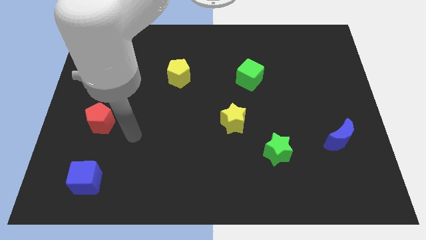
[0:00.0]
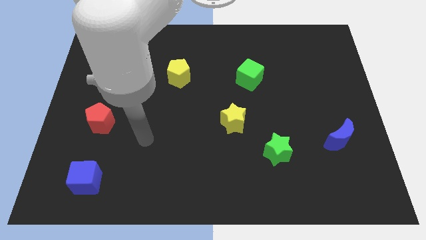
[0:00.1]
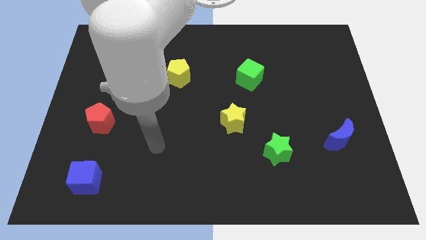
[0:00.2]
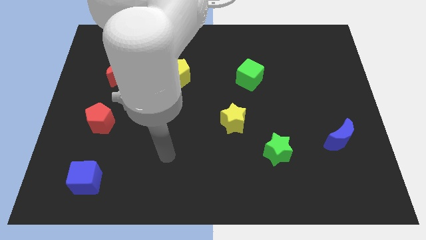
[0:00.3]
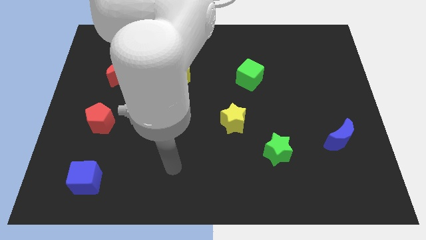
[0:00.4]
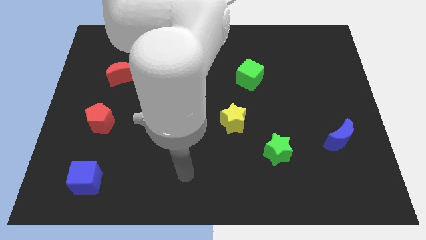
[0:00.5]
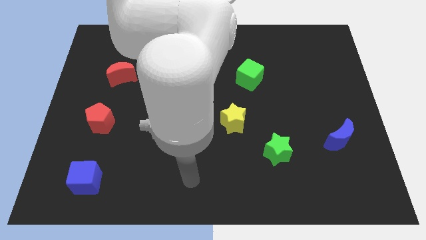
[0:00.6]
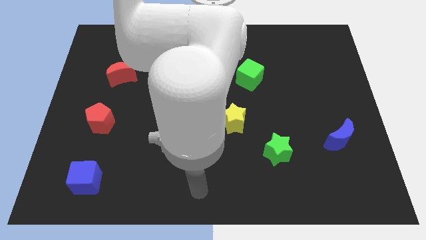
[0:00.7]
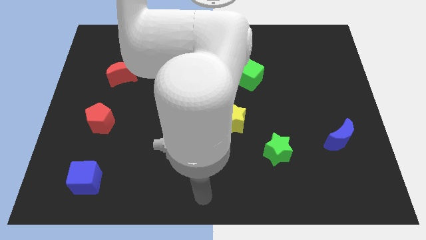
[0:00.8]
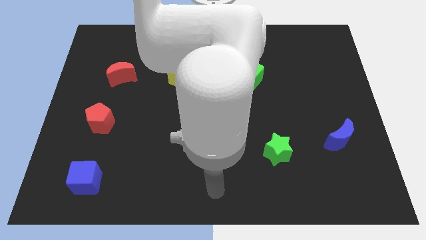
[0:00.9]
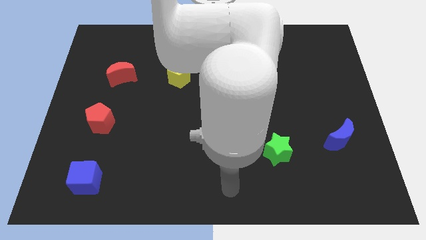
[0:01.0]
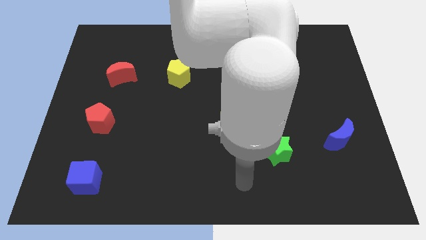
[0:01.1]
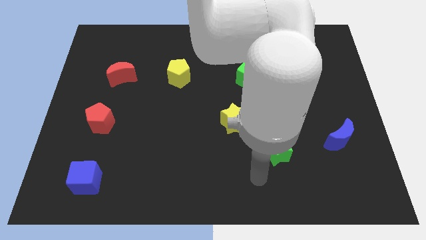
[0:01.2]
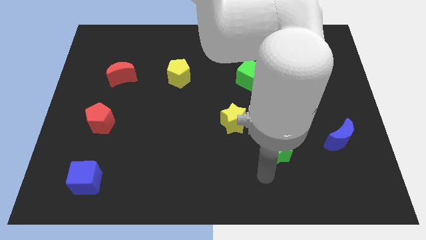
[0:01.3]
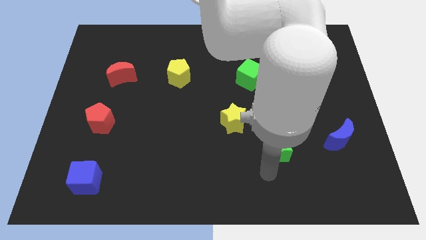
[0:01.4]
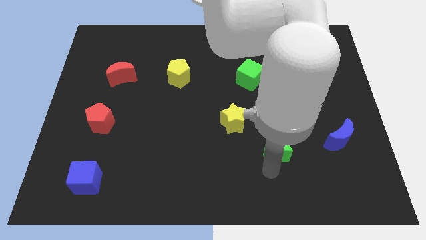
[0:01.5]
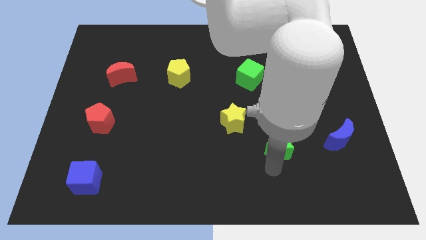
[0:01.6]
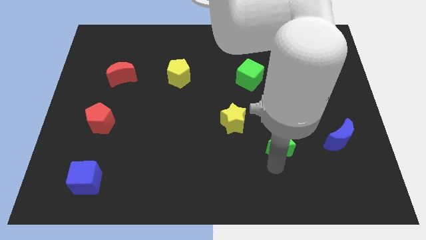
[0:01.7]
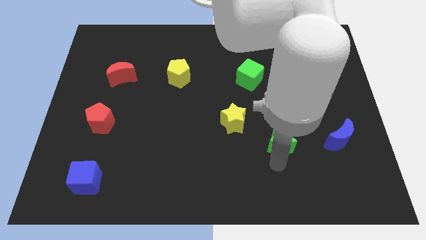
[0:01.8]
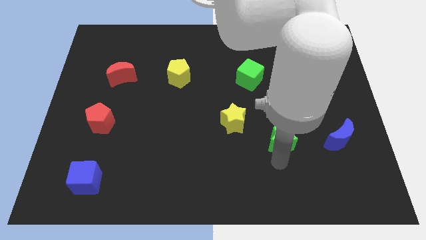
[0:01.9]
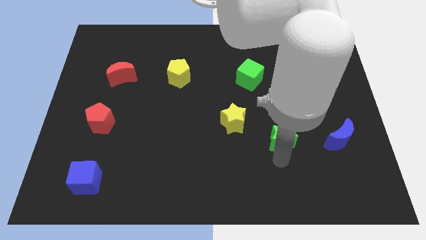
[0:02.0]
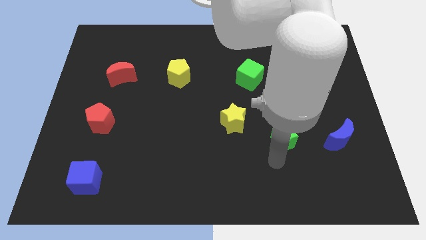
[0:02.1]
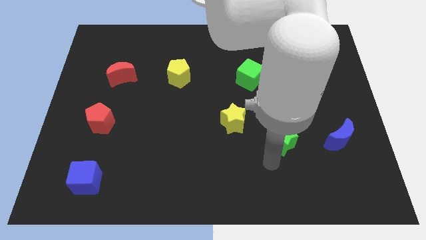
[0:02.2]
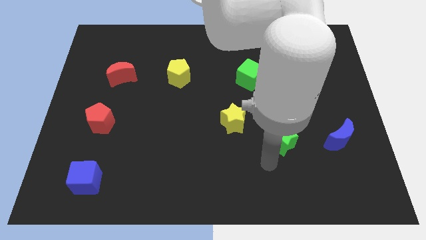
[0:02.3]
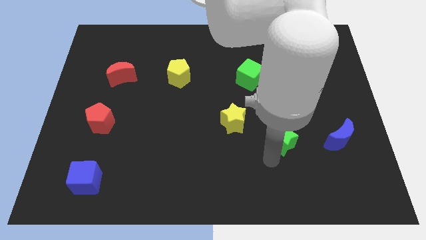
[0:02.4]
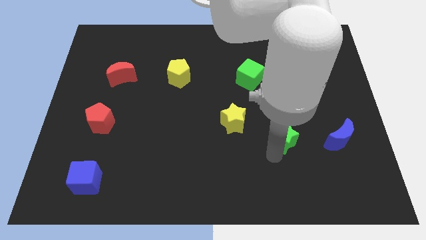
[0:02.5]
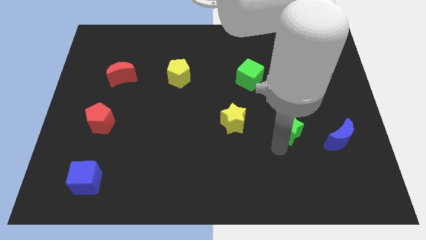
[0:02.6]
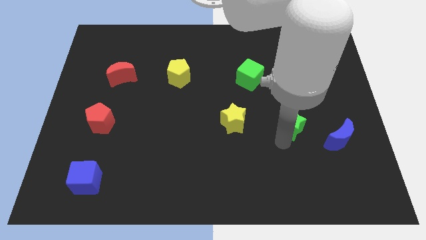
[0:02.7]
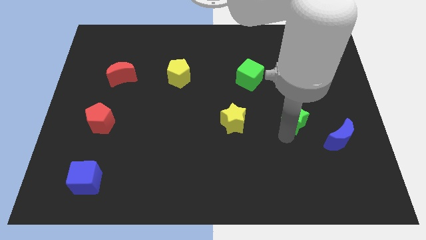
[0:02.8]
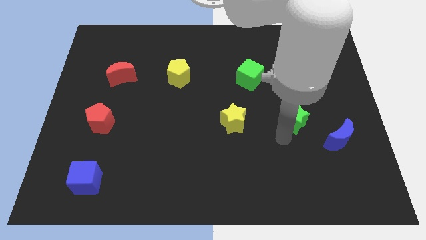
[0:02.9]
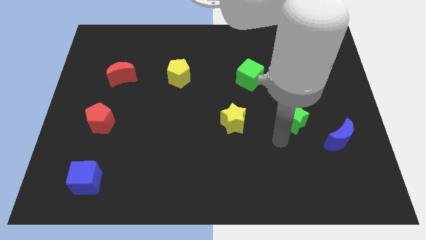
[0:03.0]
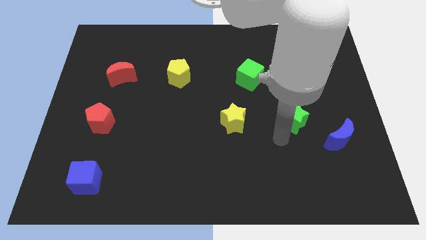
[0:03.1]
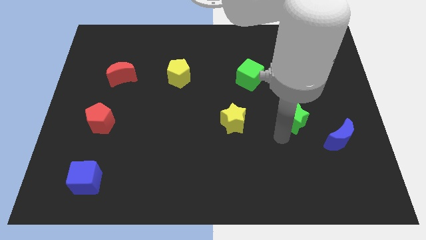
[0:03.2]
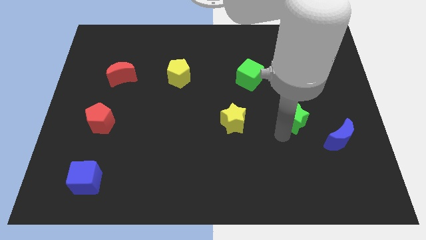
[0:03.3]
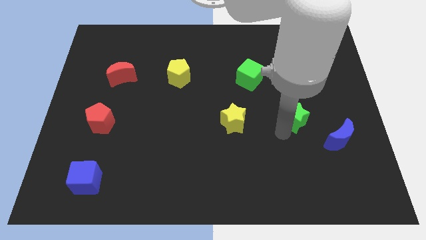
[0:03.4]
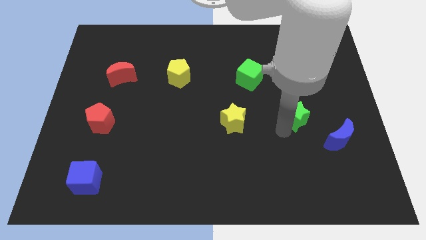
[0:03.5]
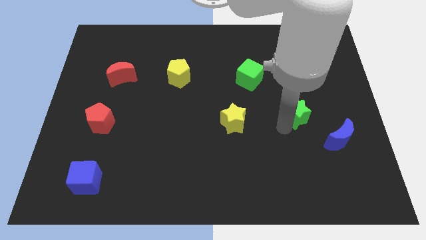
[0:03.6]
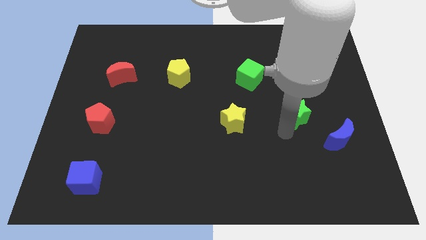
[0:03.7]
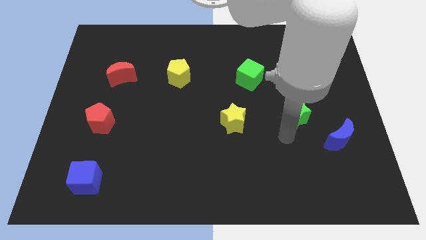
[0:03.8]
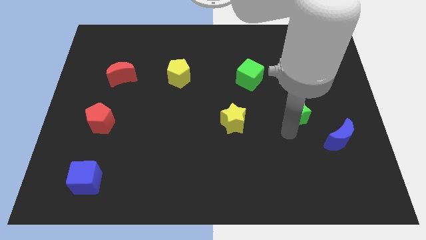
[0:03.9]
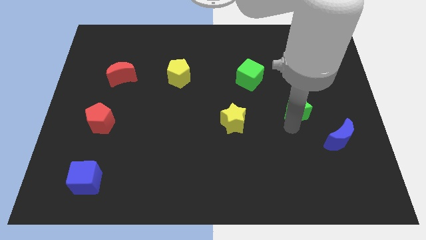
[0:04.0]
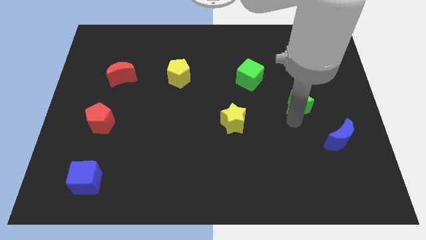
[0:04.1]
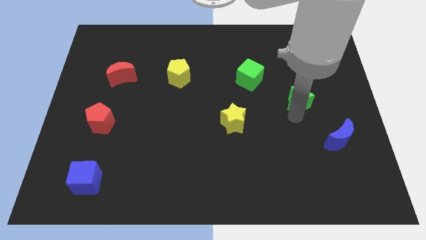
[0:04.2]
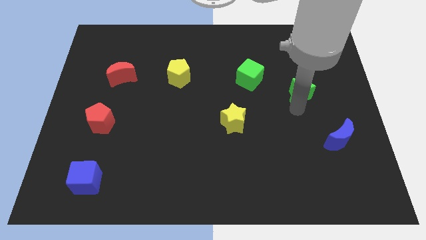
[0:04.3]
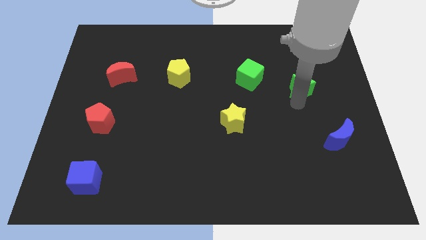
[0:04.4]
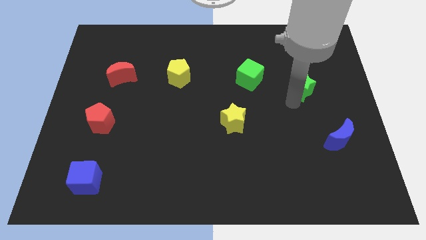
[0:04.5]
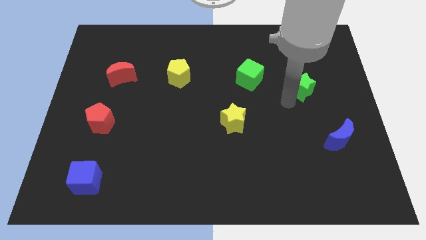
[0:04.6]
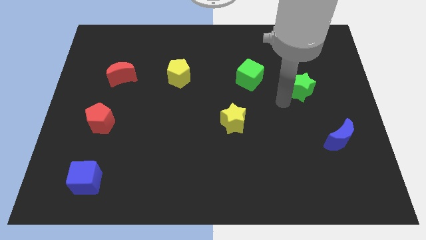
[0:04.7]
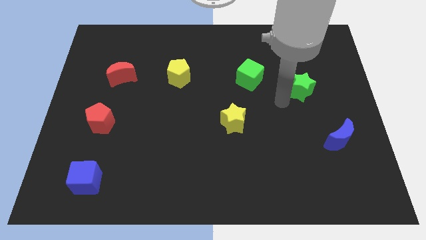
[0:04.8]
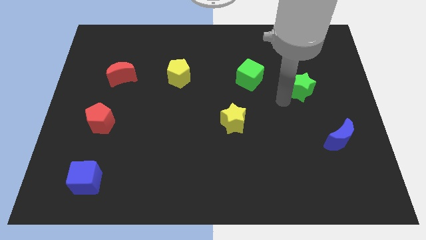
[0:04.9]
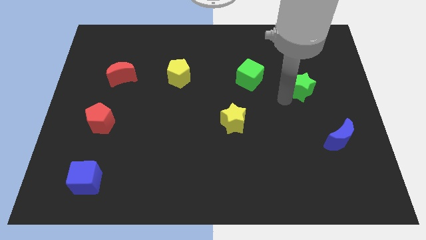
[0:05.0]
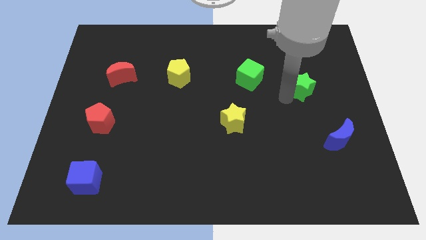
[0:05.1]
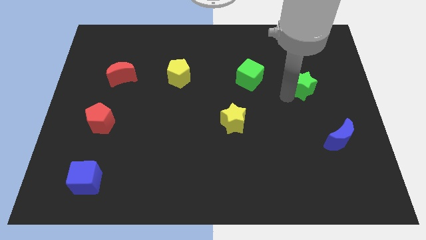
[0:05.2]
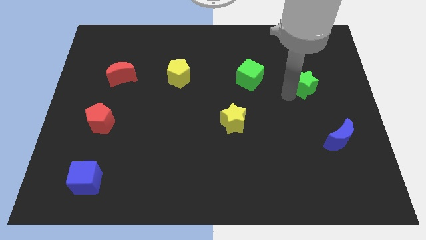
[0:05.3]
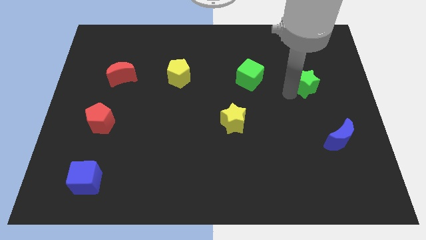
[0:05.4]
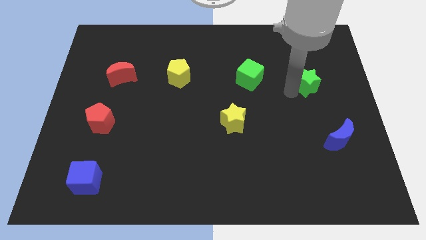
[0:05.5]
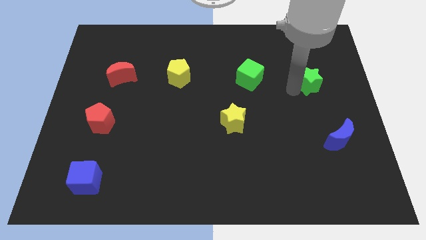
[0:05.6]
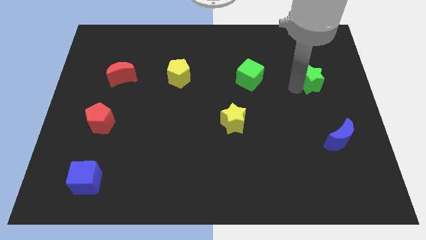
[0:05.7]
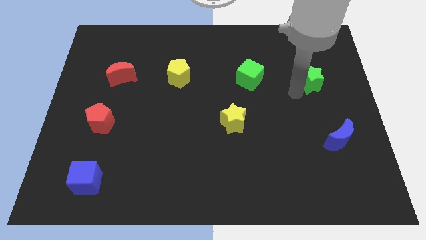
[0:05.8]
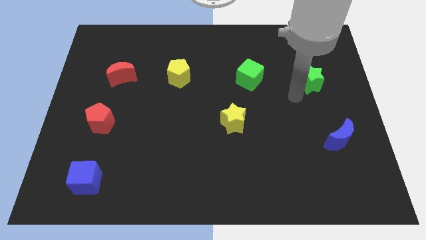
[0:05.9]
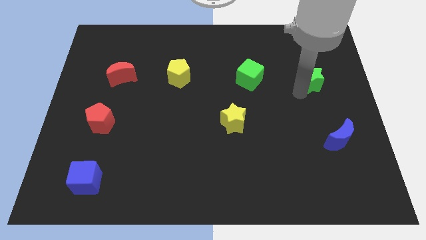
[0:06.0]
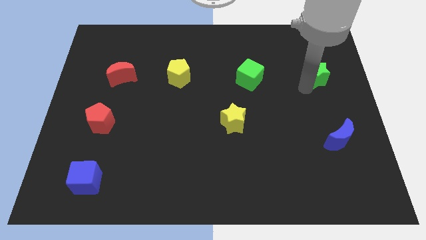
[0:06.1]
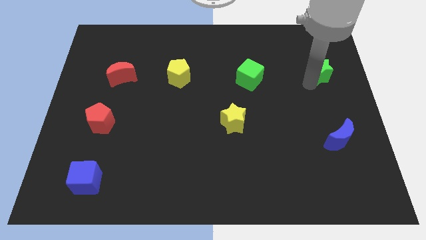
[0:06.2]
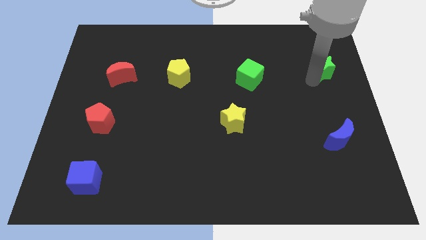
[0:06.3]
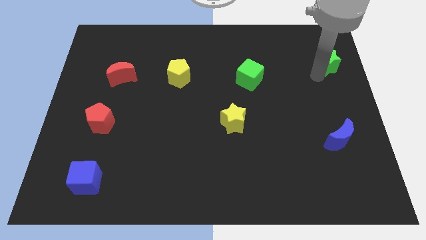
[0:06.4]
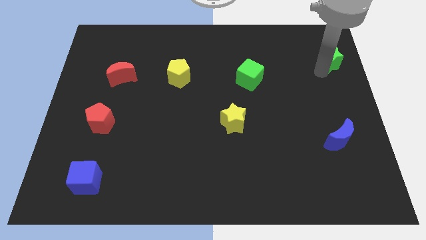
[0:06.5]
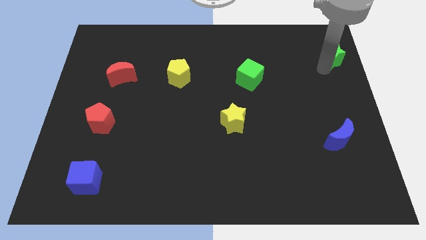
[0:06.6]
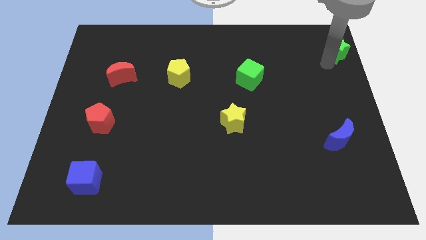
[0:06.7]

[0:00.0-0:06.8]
put the green star to the top right
